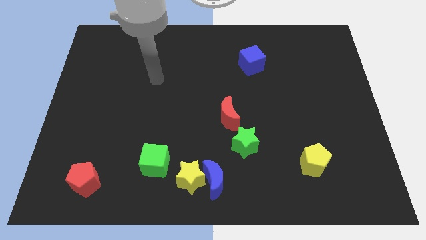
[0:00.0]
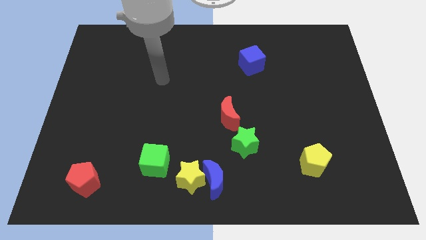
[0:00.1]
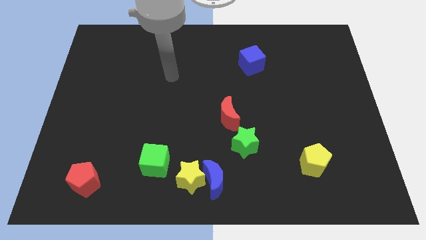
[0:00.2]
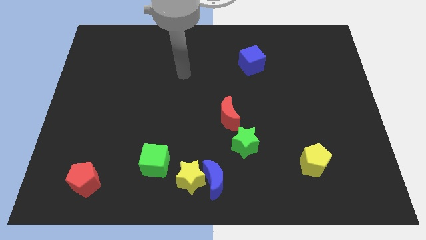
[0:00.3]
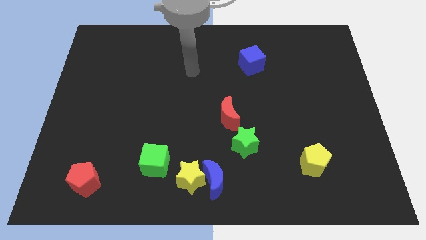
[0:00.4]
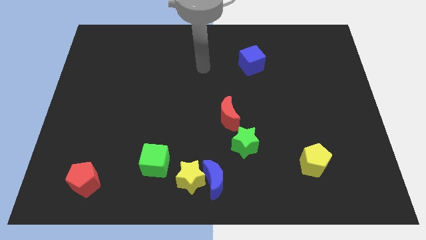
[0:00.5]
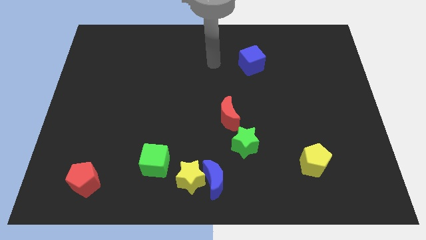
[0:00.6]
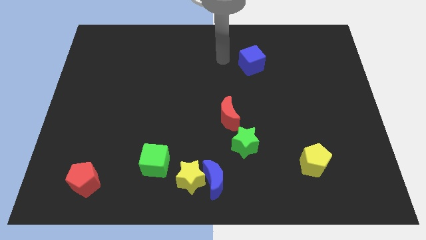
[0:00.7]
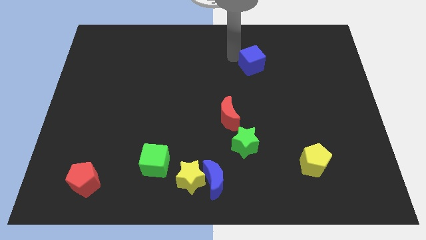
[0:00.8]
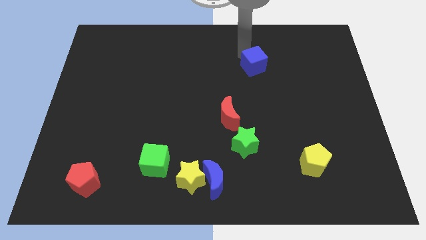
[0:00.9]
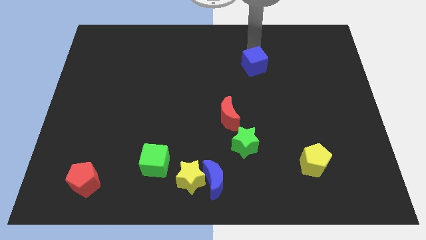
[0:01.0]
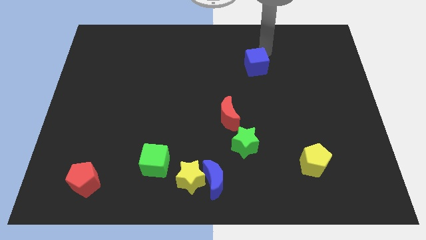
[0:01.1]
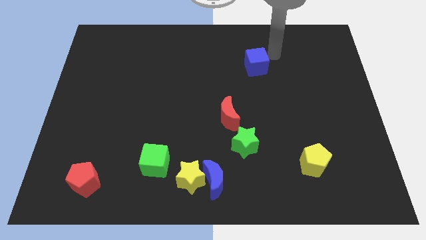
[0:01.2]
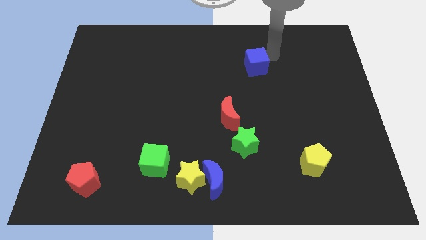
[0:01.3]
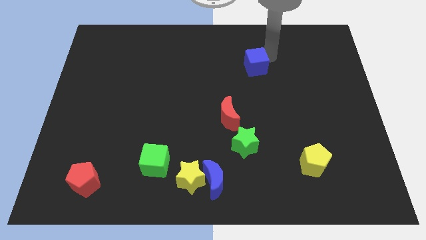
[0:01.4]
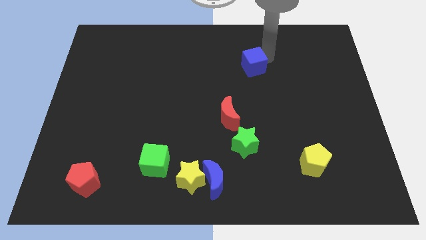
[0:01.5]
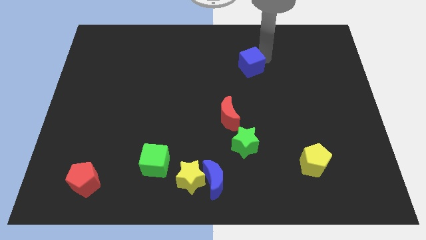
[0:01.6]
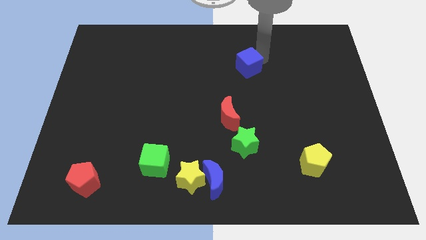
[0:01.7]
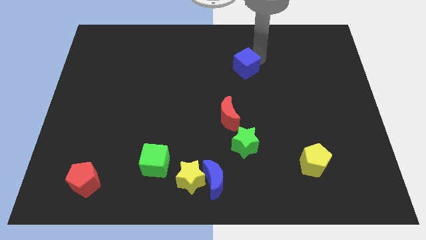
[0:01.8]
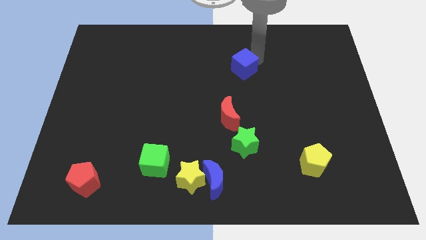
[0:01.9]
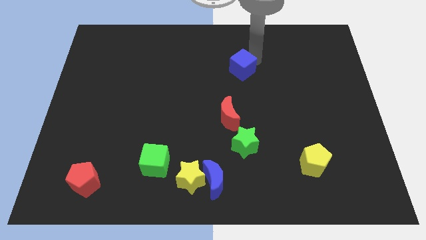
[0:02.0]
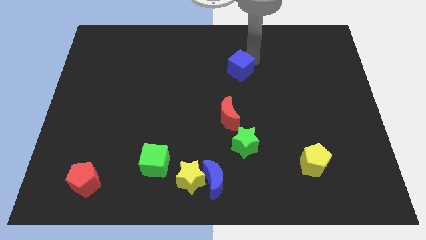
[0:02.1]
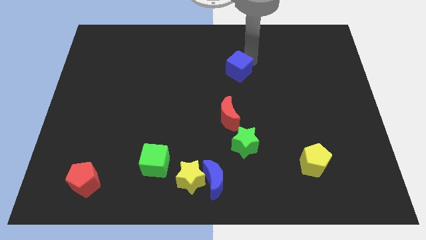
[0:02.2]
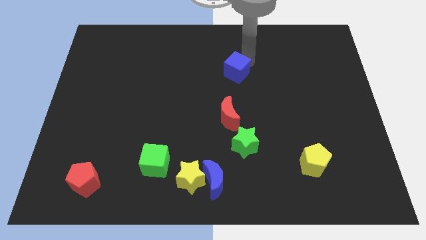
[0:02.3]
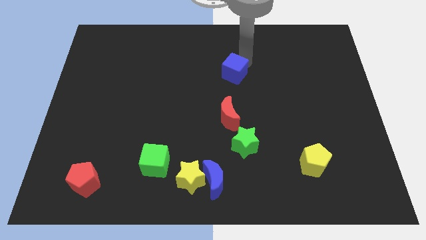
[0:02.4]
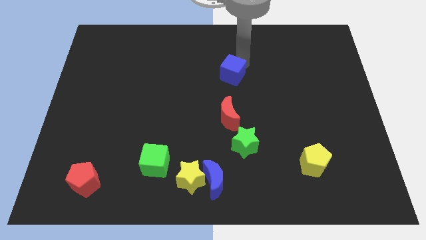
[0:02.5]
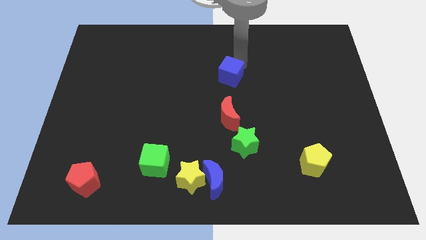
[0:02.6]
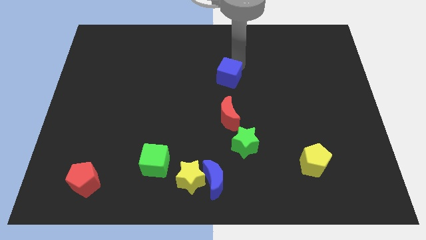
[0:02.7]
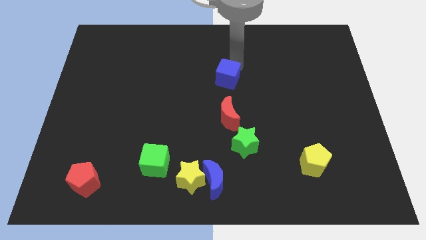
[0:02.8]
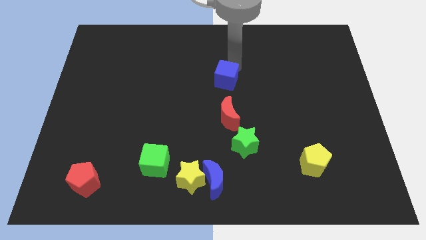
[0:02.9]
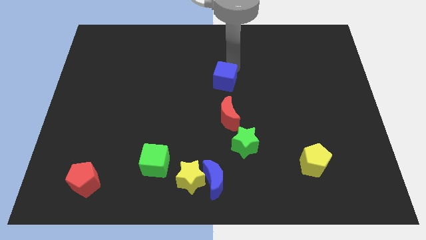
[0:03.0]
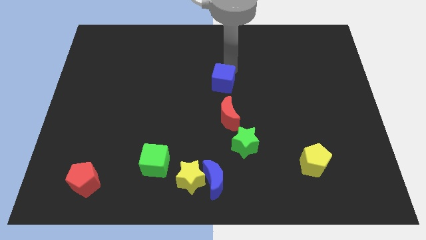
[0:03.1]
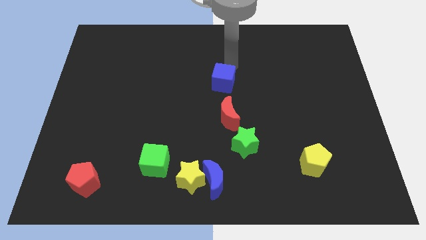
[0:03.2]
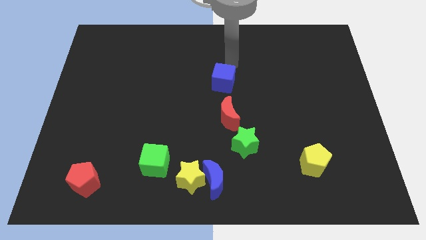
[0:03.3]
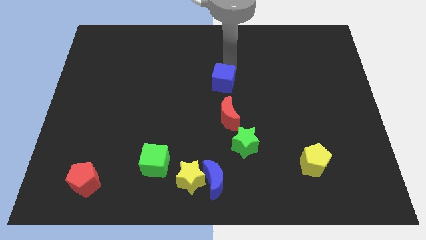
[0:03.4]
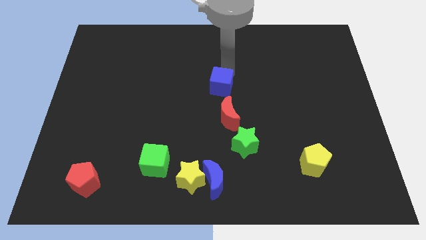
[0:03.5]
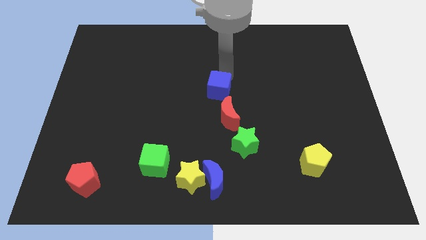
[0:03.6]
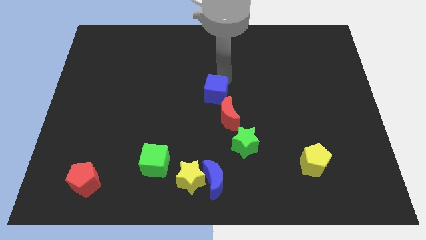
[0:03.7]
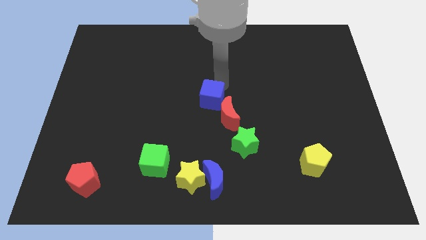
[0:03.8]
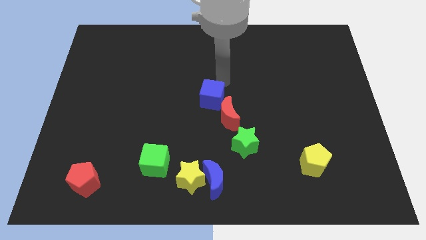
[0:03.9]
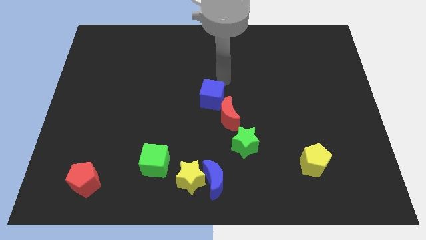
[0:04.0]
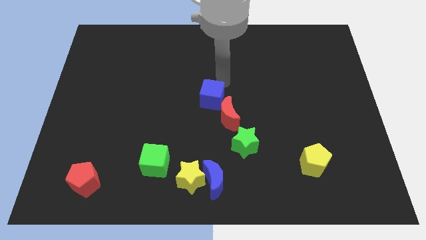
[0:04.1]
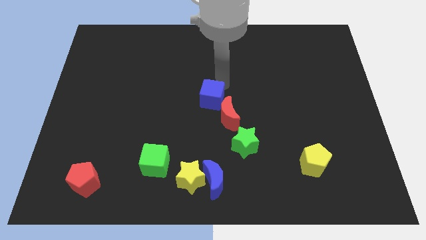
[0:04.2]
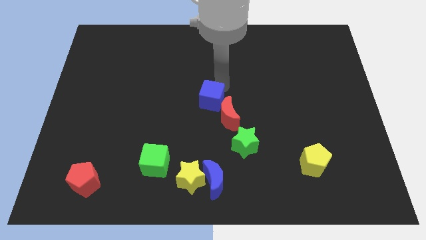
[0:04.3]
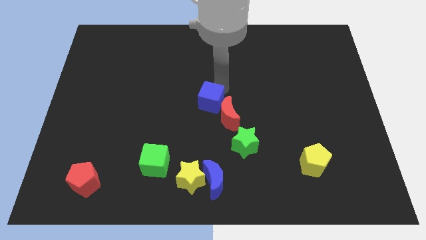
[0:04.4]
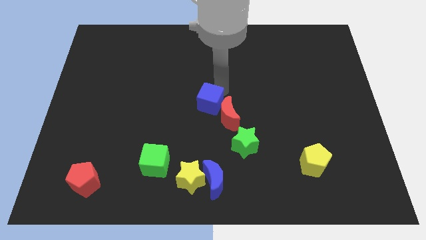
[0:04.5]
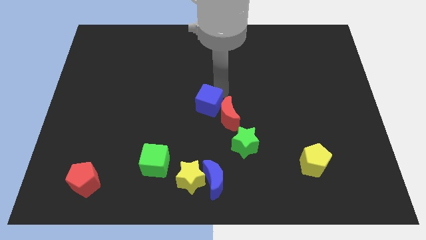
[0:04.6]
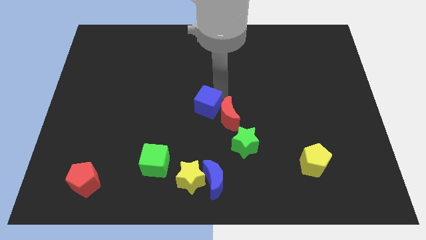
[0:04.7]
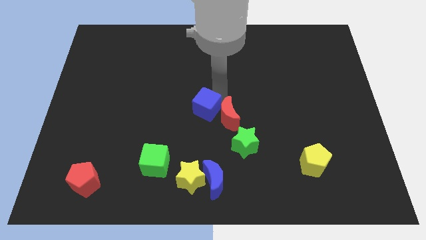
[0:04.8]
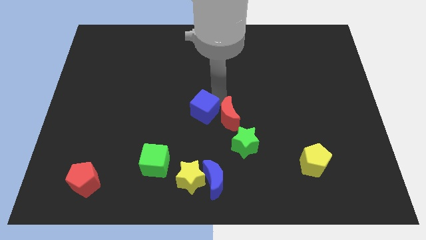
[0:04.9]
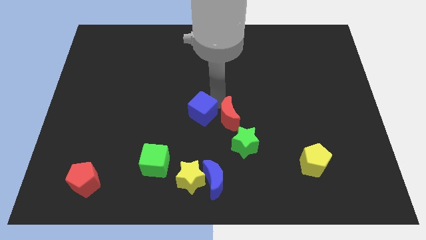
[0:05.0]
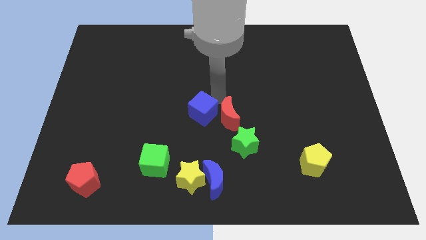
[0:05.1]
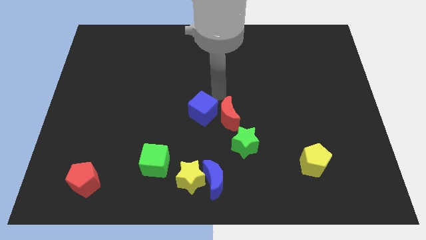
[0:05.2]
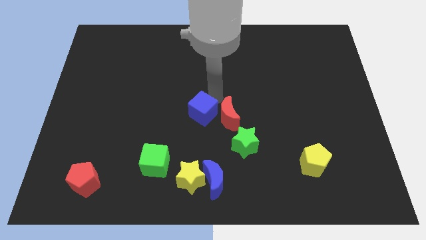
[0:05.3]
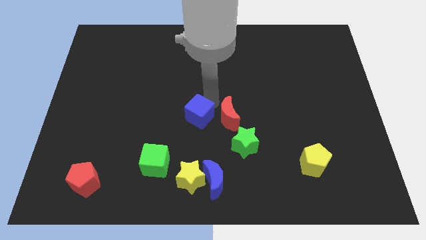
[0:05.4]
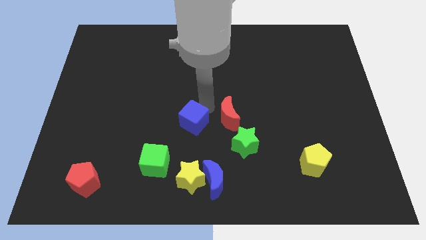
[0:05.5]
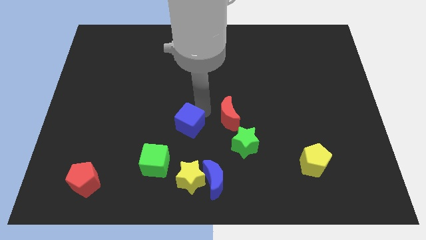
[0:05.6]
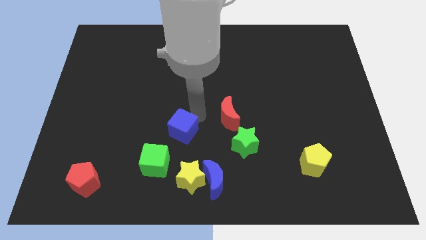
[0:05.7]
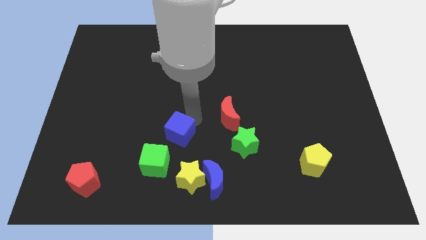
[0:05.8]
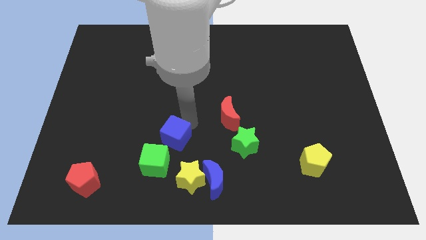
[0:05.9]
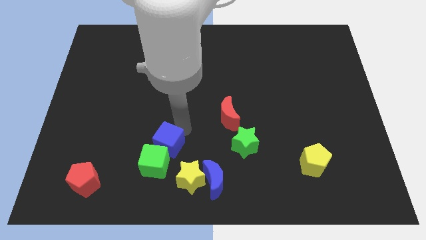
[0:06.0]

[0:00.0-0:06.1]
move the blue cube to the green cube

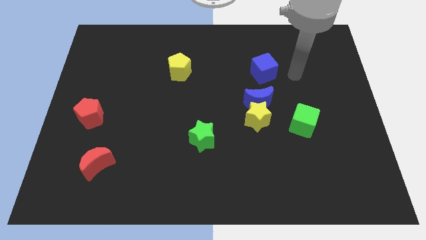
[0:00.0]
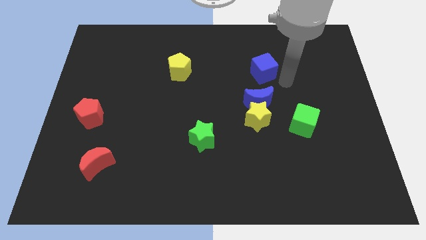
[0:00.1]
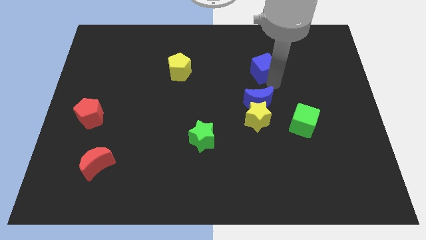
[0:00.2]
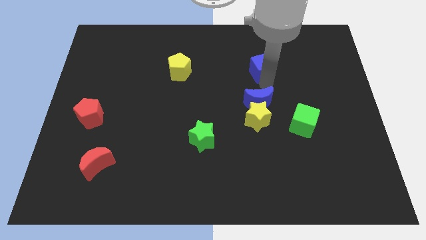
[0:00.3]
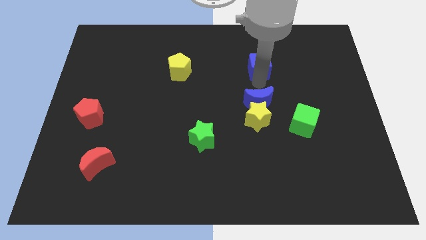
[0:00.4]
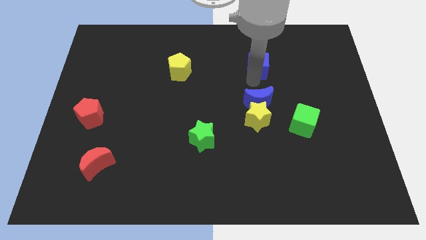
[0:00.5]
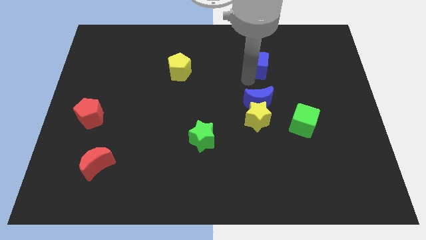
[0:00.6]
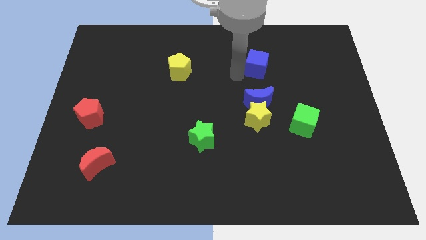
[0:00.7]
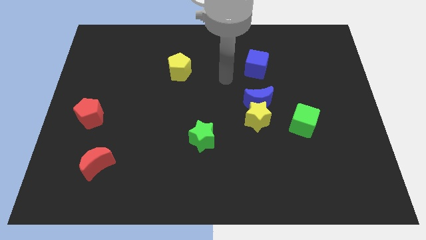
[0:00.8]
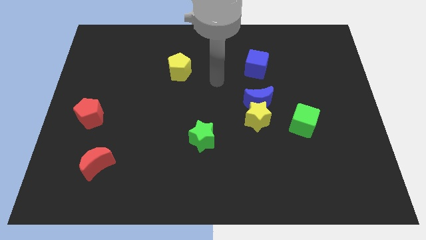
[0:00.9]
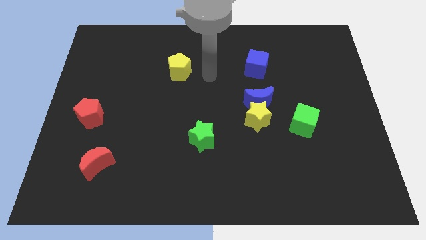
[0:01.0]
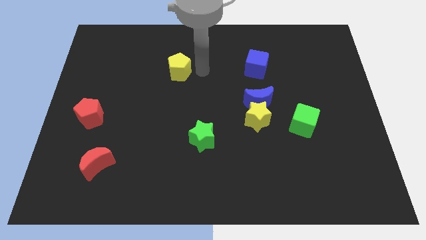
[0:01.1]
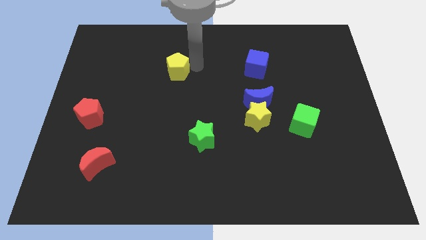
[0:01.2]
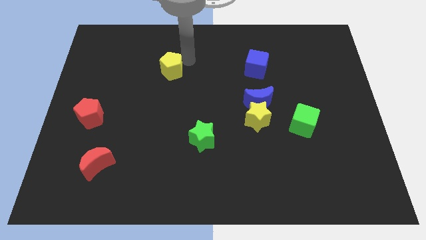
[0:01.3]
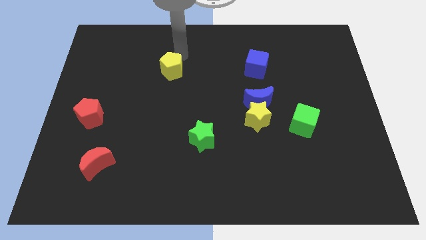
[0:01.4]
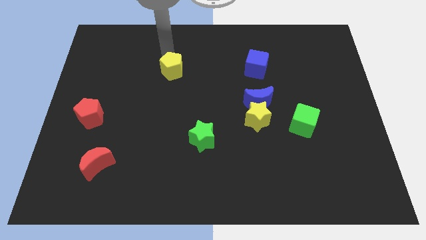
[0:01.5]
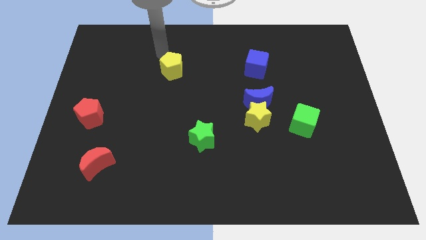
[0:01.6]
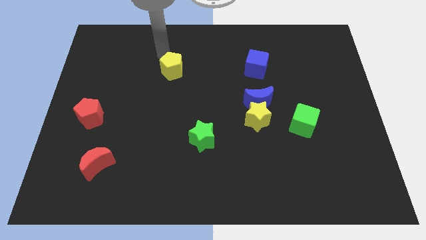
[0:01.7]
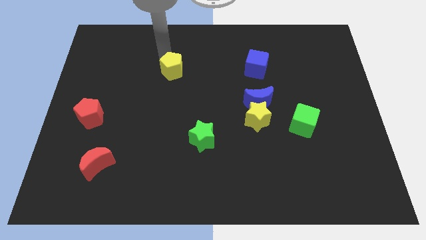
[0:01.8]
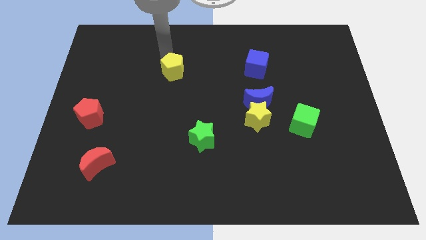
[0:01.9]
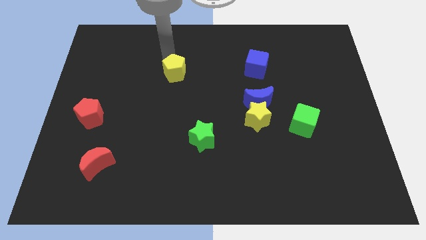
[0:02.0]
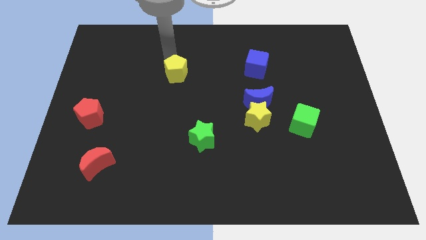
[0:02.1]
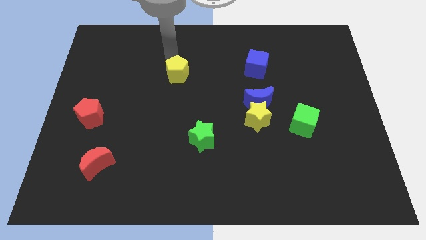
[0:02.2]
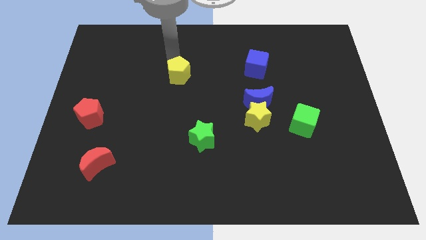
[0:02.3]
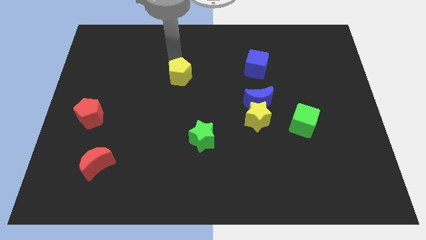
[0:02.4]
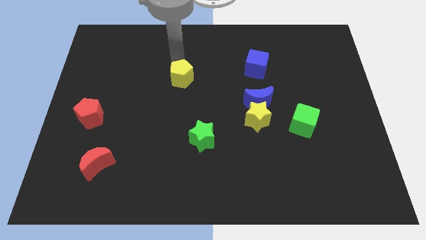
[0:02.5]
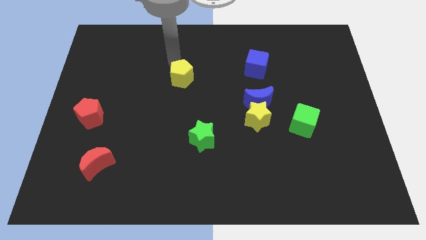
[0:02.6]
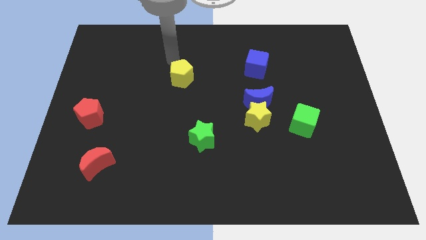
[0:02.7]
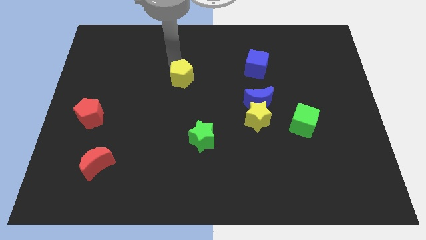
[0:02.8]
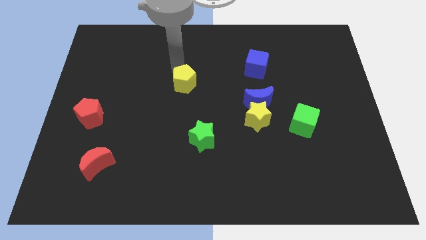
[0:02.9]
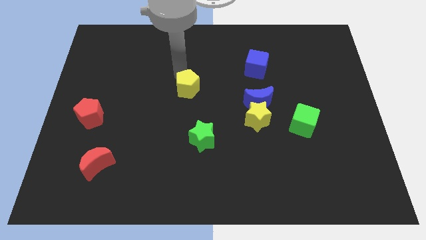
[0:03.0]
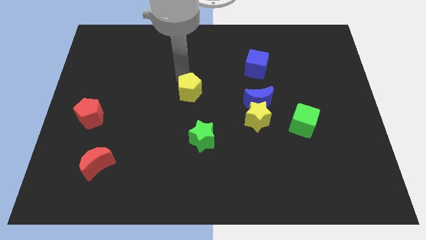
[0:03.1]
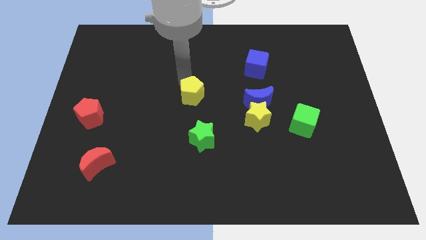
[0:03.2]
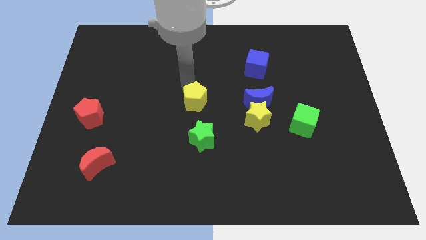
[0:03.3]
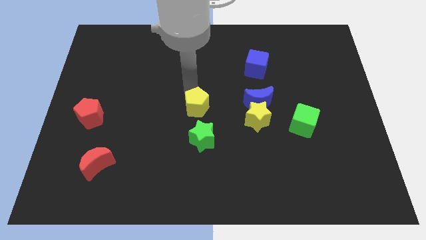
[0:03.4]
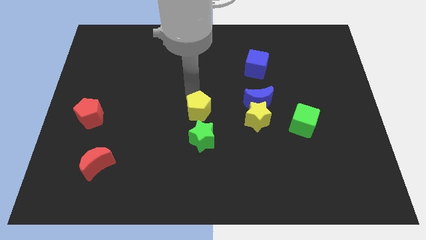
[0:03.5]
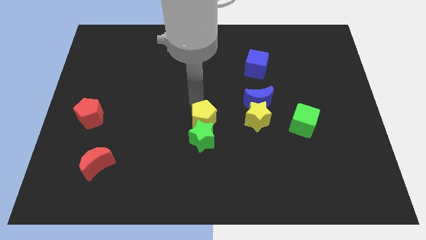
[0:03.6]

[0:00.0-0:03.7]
move the yellow pentagon close to the green star
